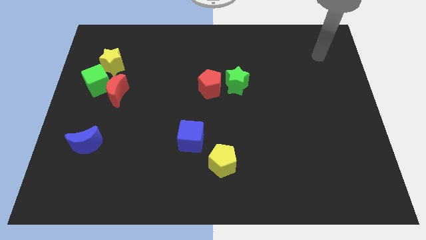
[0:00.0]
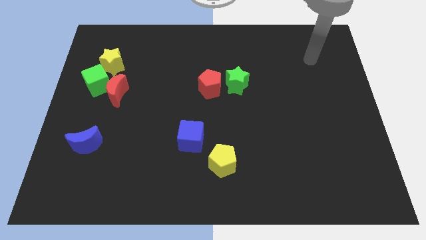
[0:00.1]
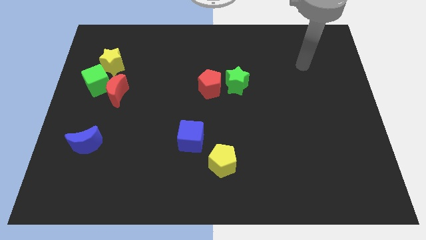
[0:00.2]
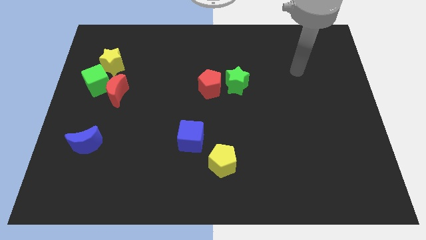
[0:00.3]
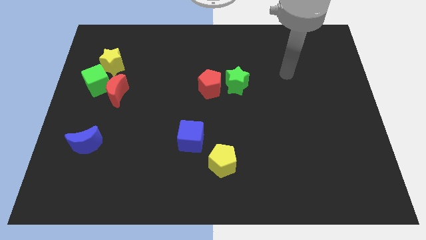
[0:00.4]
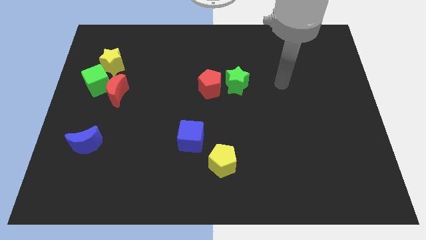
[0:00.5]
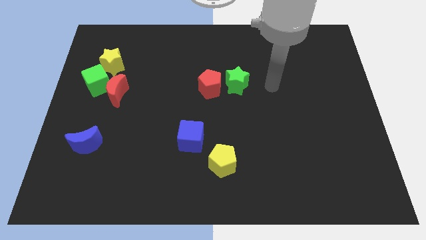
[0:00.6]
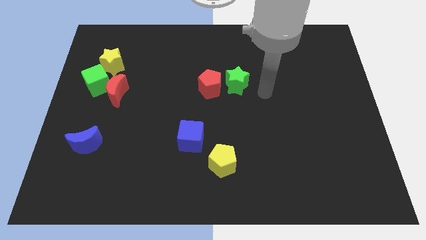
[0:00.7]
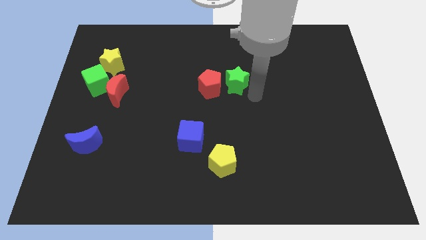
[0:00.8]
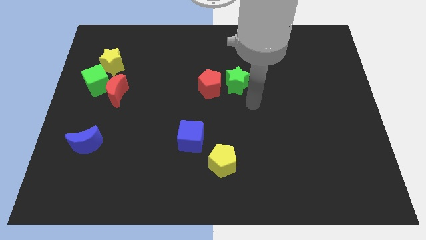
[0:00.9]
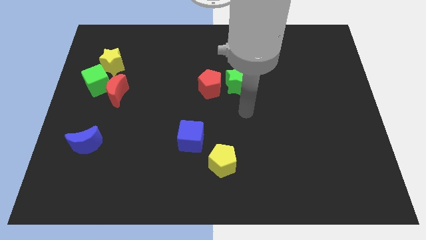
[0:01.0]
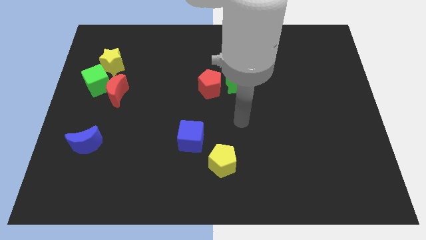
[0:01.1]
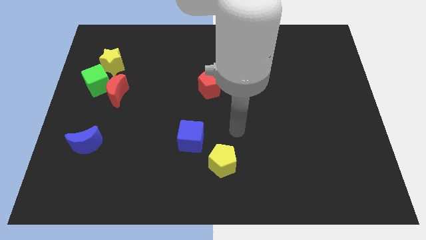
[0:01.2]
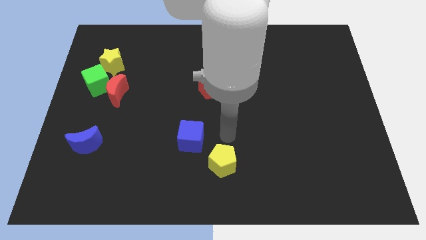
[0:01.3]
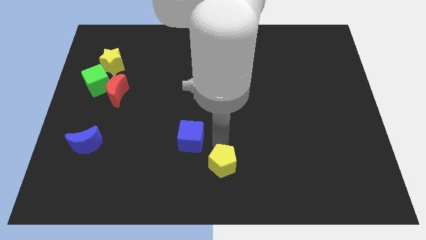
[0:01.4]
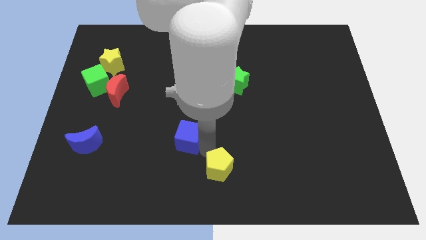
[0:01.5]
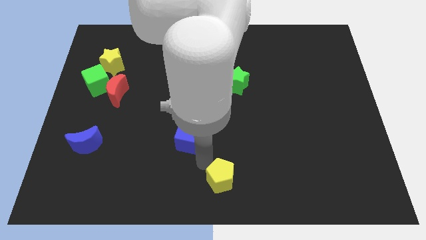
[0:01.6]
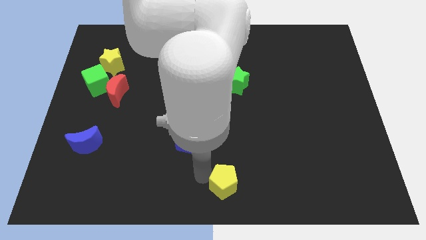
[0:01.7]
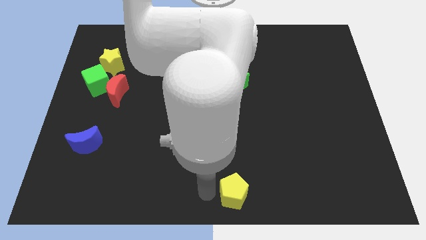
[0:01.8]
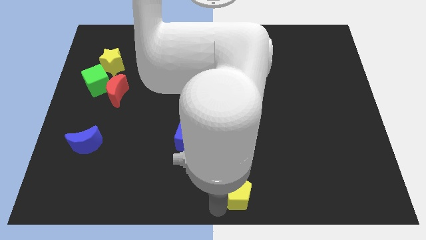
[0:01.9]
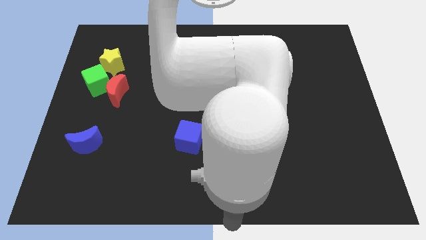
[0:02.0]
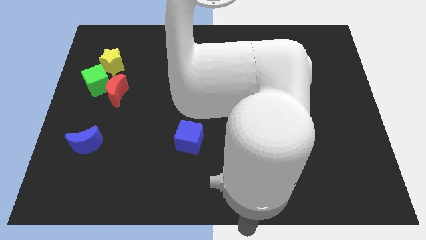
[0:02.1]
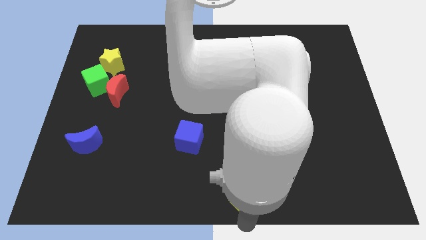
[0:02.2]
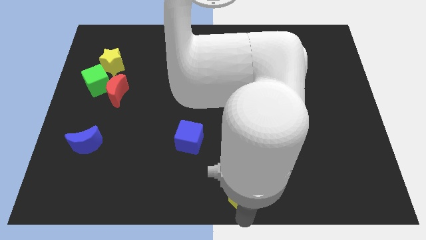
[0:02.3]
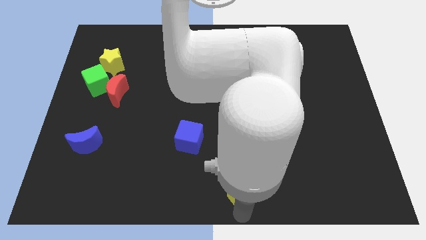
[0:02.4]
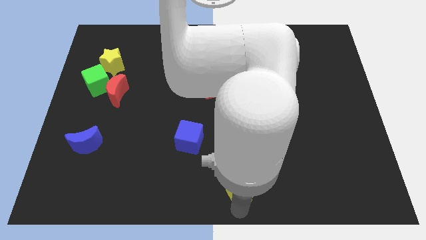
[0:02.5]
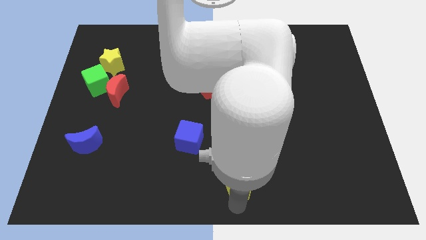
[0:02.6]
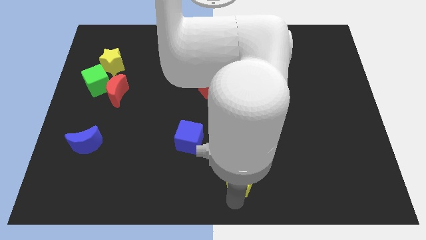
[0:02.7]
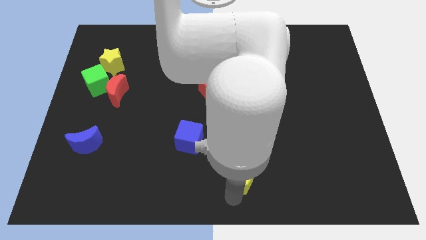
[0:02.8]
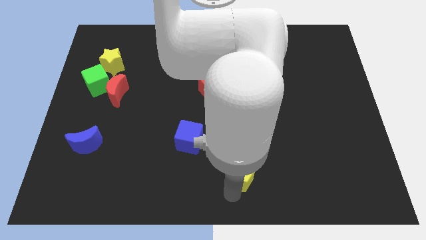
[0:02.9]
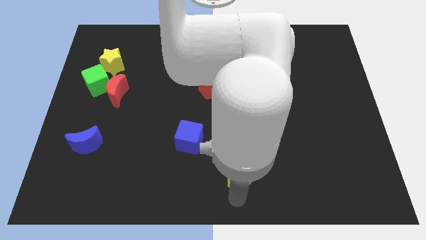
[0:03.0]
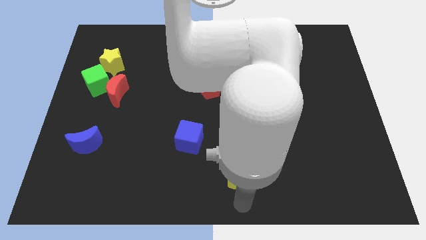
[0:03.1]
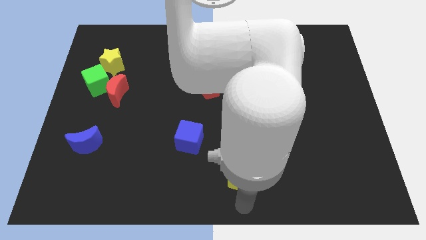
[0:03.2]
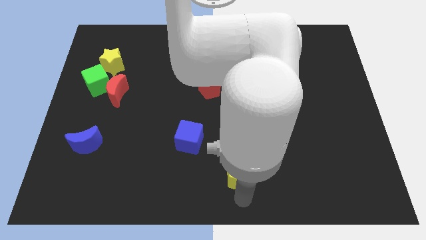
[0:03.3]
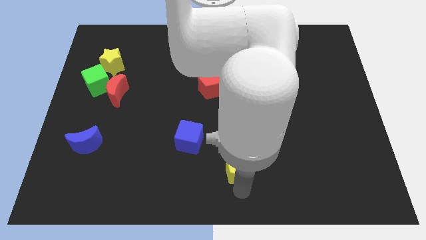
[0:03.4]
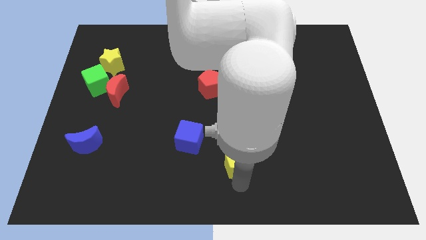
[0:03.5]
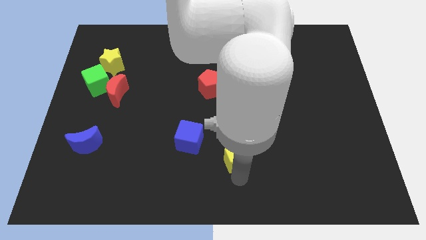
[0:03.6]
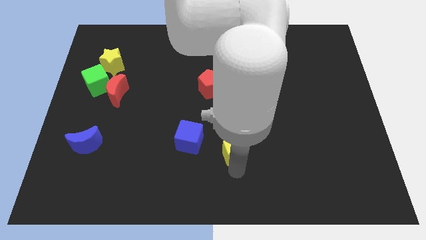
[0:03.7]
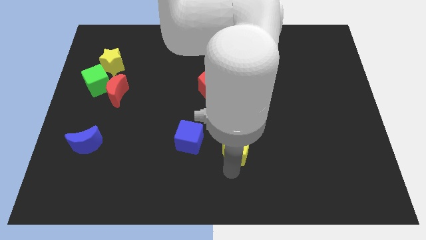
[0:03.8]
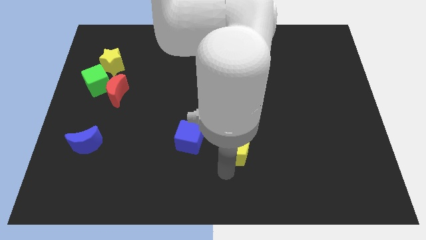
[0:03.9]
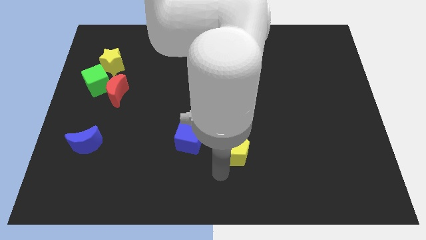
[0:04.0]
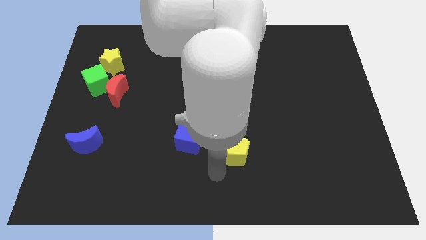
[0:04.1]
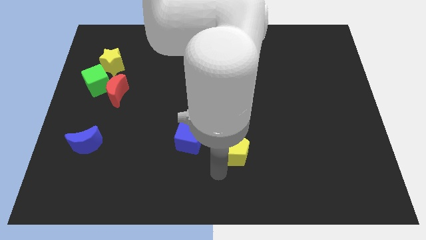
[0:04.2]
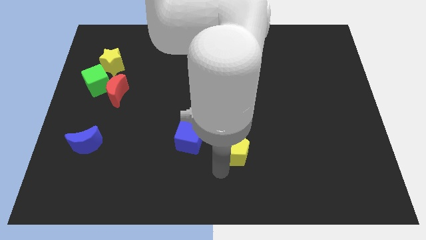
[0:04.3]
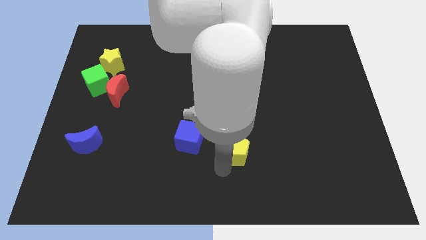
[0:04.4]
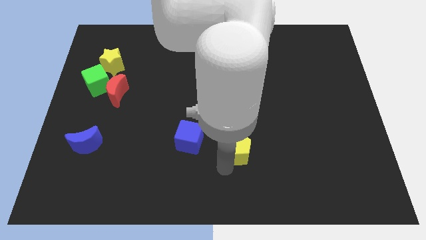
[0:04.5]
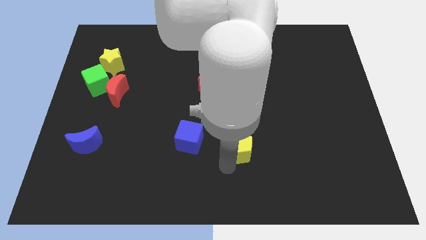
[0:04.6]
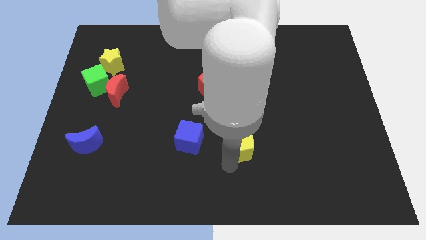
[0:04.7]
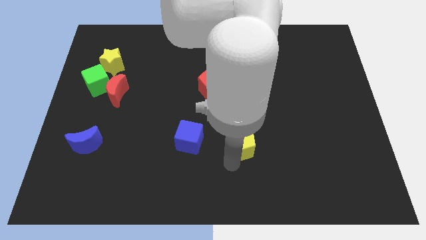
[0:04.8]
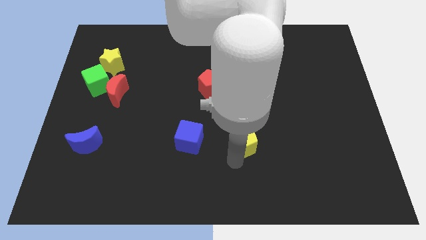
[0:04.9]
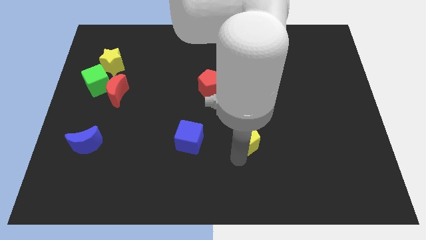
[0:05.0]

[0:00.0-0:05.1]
push the yellow pentagon a bit up and to the right diagonally

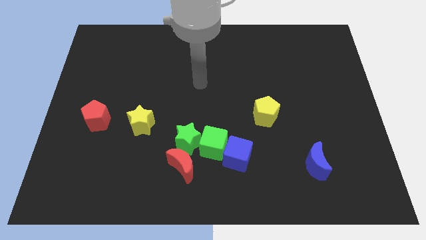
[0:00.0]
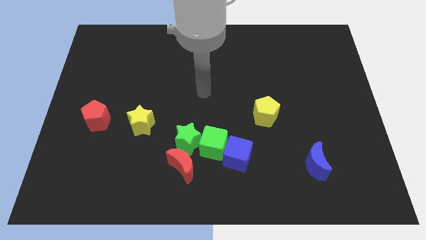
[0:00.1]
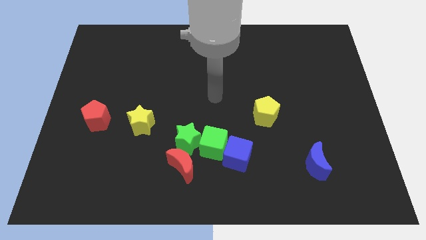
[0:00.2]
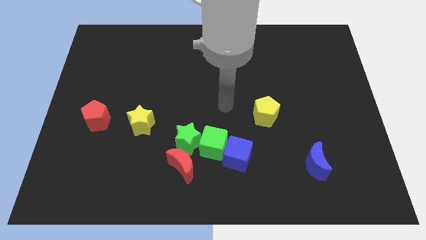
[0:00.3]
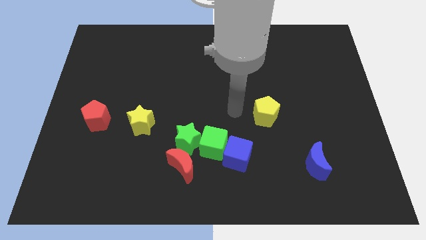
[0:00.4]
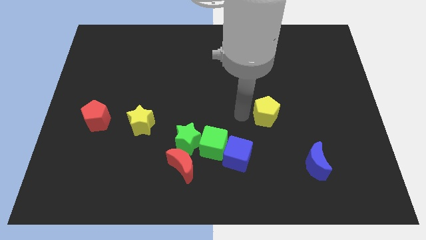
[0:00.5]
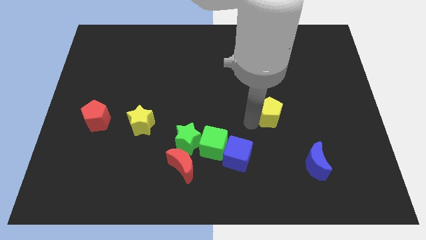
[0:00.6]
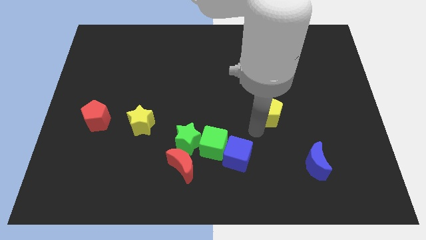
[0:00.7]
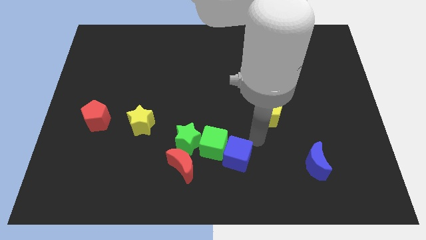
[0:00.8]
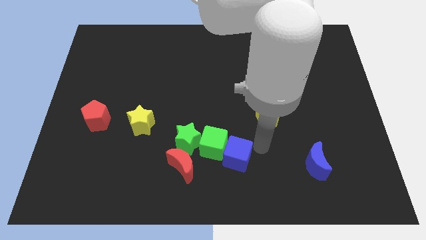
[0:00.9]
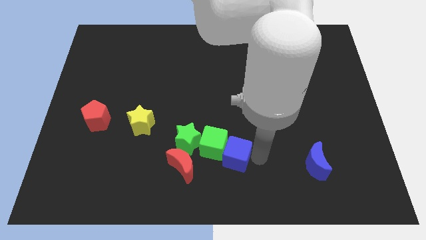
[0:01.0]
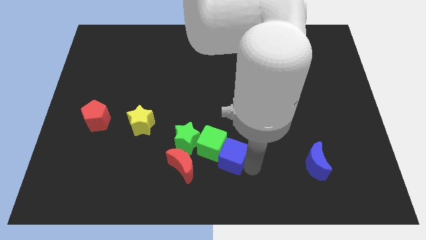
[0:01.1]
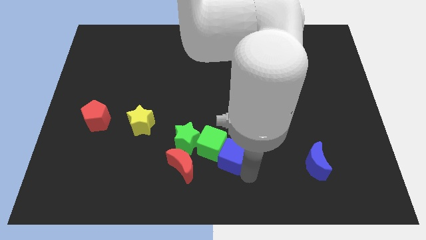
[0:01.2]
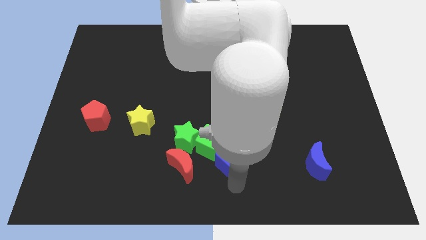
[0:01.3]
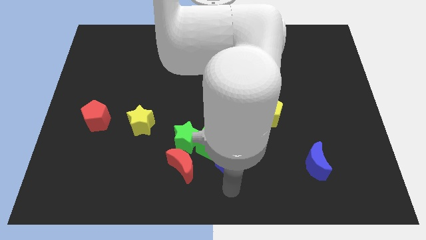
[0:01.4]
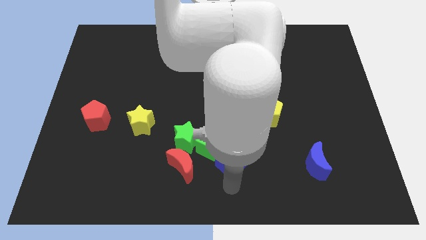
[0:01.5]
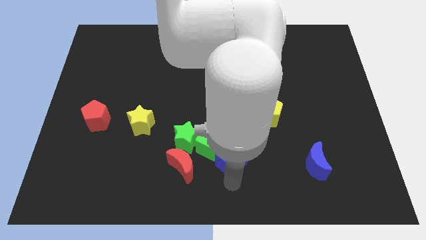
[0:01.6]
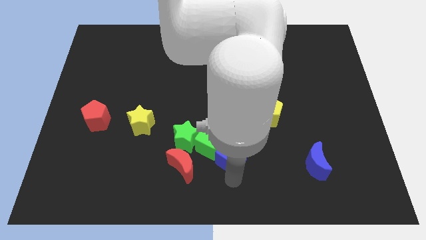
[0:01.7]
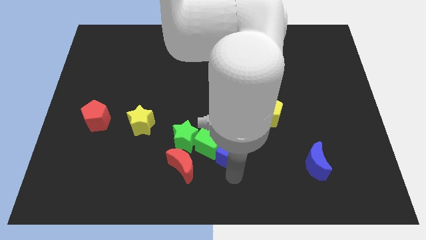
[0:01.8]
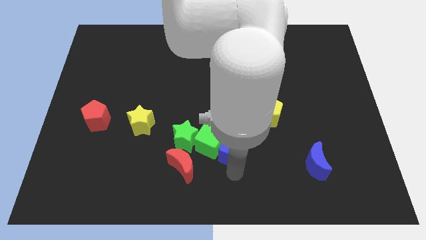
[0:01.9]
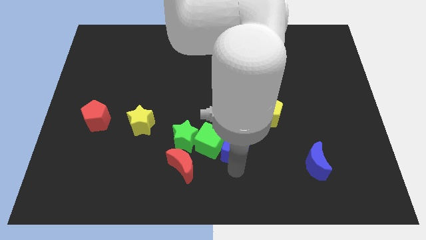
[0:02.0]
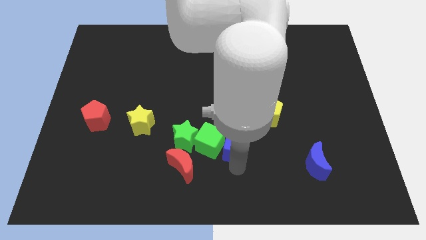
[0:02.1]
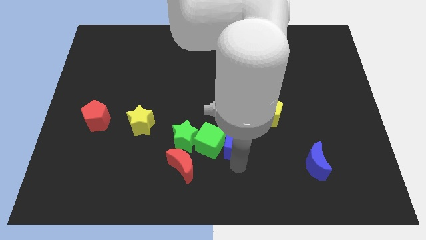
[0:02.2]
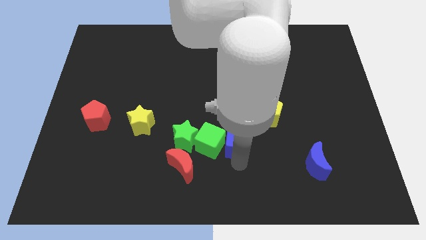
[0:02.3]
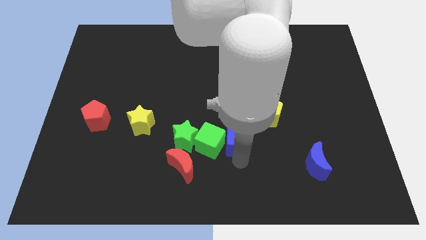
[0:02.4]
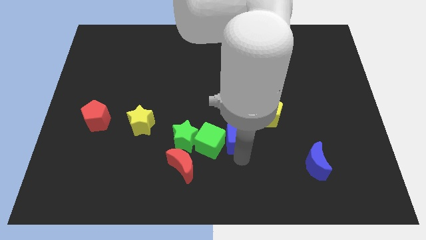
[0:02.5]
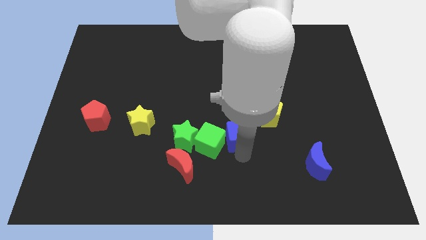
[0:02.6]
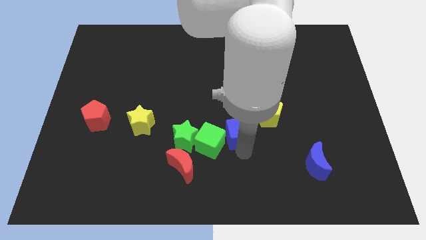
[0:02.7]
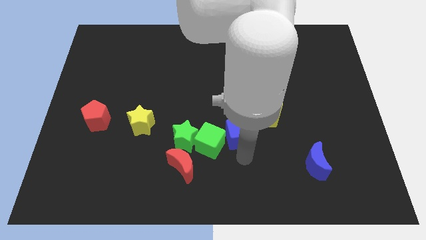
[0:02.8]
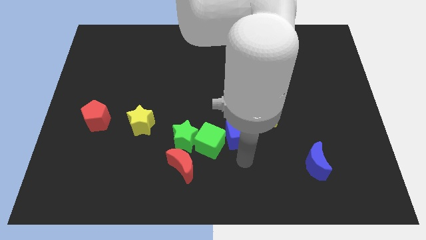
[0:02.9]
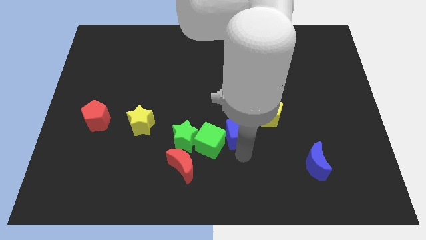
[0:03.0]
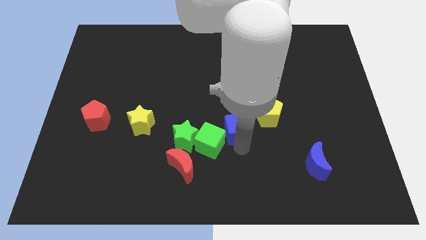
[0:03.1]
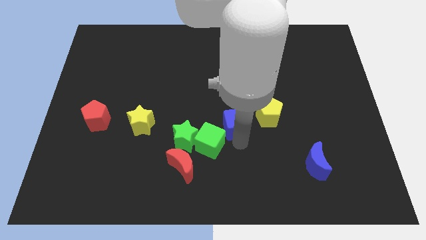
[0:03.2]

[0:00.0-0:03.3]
slide the blue cube upwards somewhat
